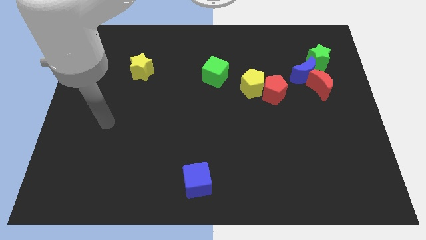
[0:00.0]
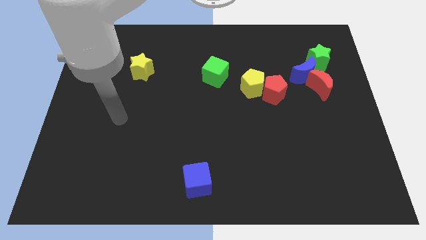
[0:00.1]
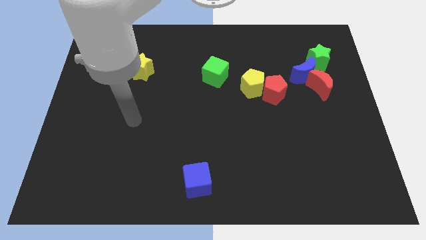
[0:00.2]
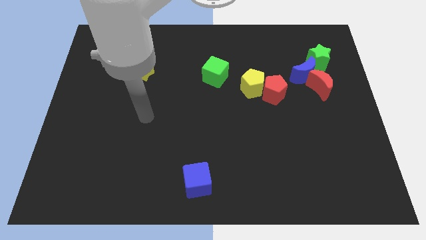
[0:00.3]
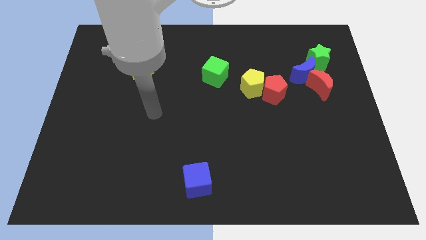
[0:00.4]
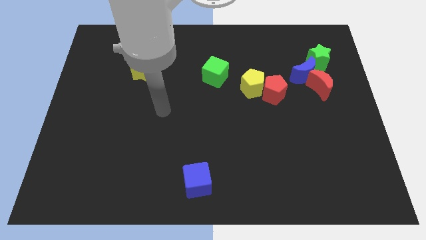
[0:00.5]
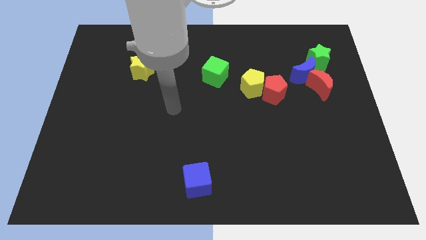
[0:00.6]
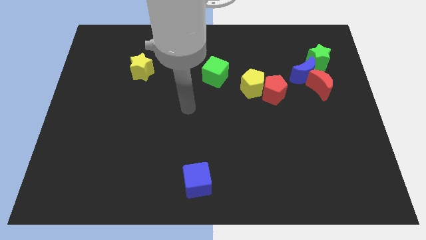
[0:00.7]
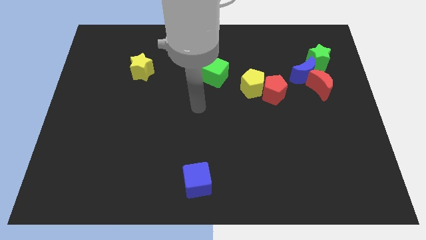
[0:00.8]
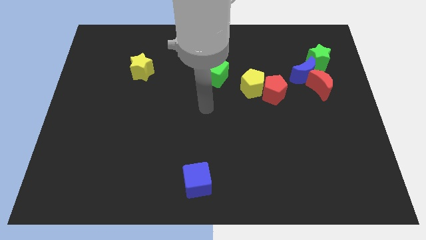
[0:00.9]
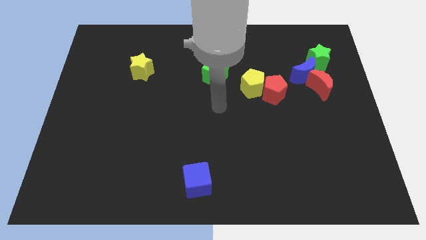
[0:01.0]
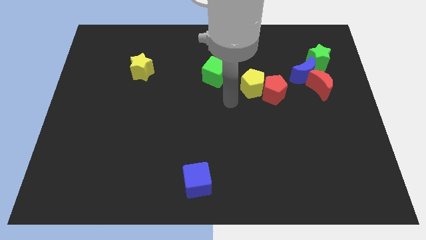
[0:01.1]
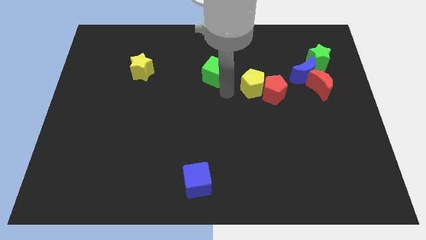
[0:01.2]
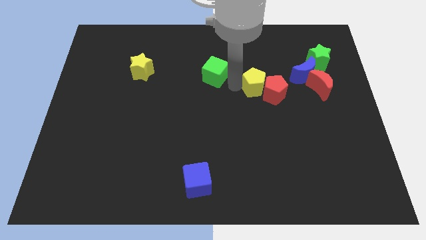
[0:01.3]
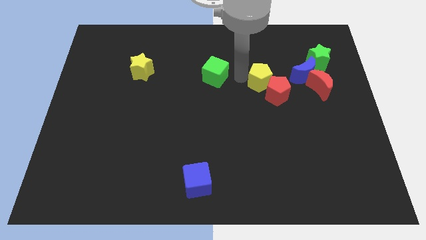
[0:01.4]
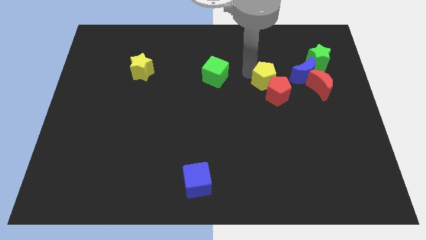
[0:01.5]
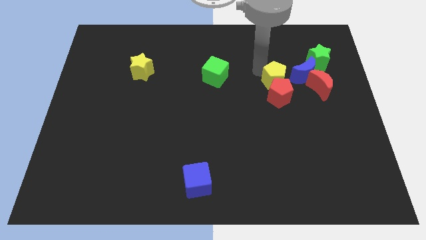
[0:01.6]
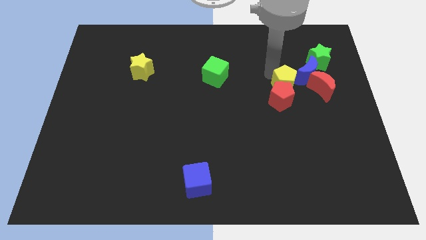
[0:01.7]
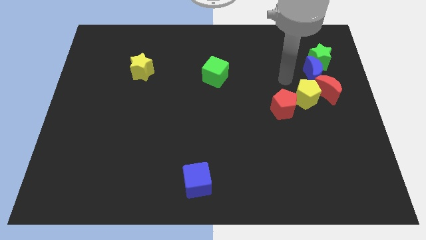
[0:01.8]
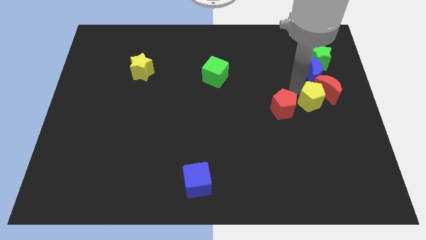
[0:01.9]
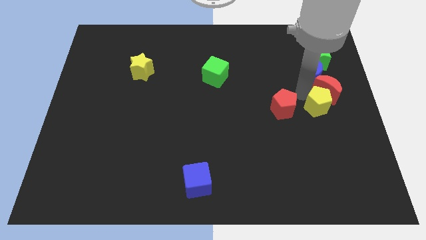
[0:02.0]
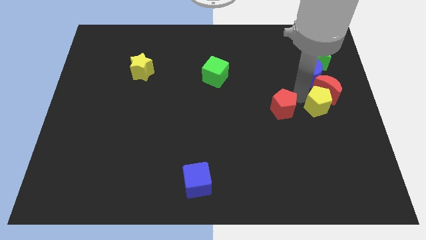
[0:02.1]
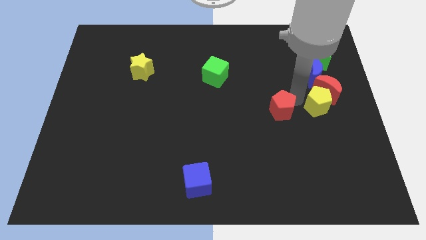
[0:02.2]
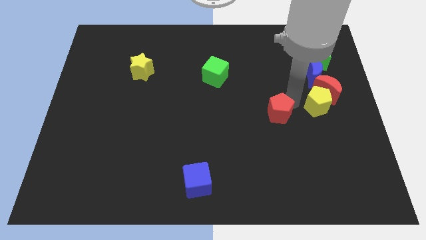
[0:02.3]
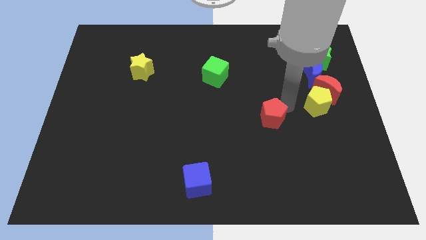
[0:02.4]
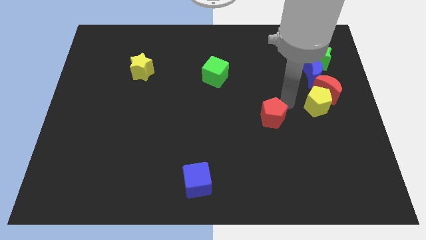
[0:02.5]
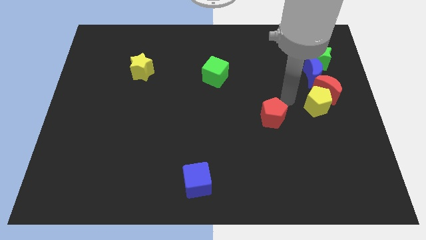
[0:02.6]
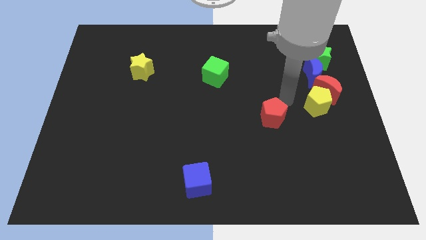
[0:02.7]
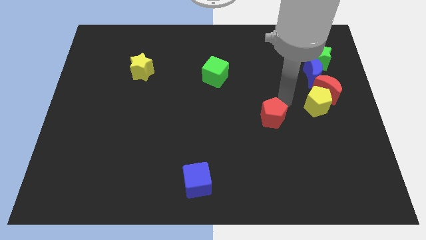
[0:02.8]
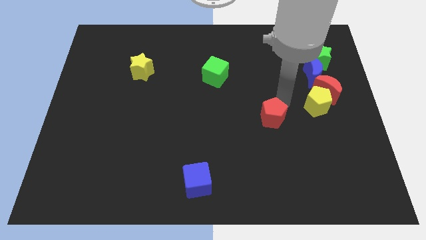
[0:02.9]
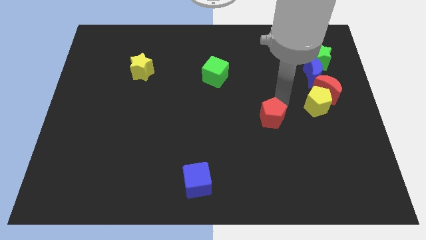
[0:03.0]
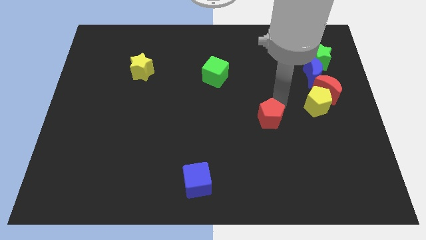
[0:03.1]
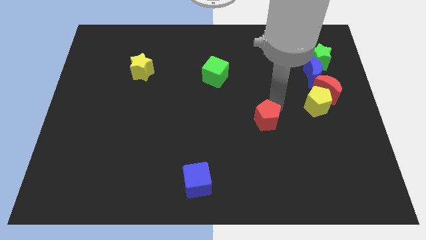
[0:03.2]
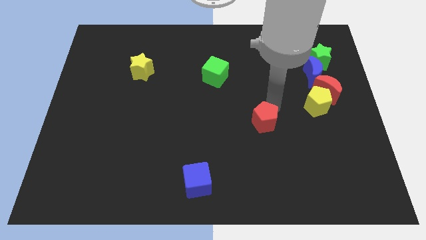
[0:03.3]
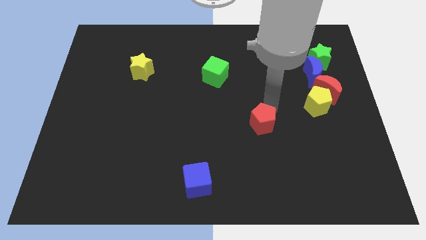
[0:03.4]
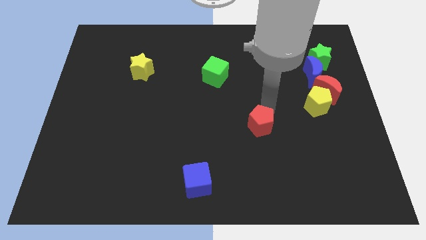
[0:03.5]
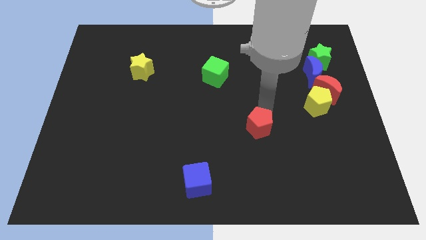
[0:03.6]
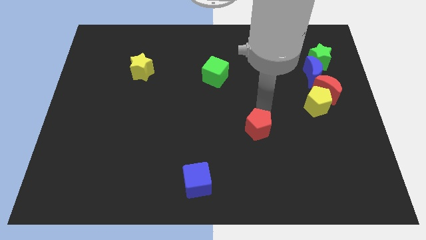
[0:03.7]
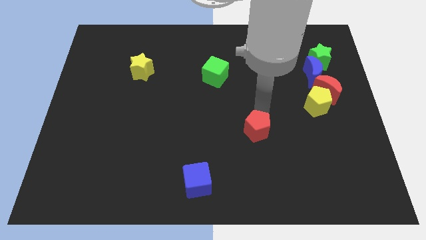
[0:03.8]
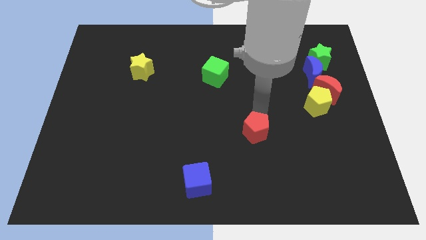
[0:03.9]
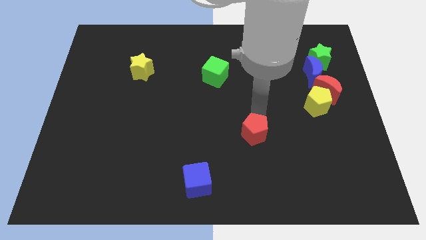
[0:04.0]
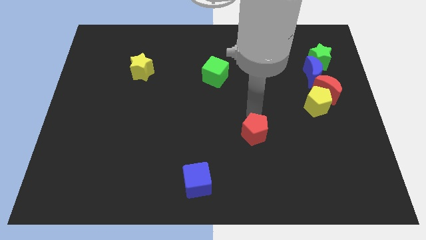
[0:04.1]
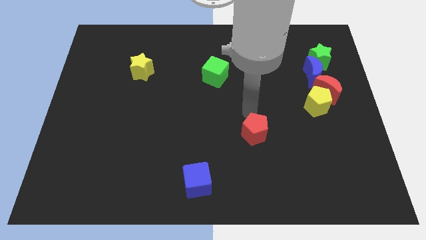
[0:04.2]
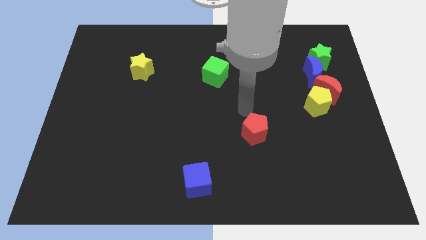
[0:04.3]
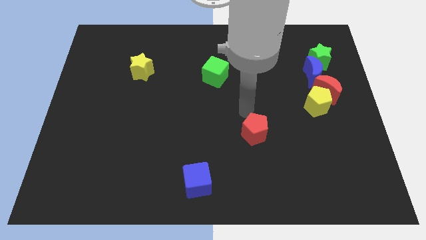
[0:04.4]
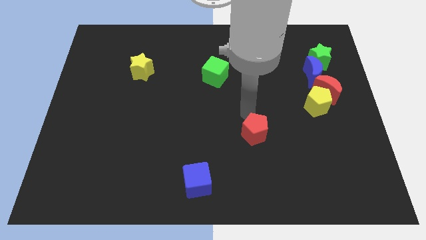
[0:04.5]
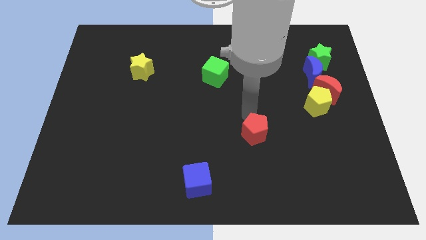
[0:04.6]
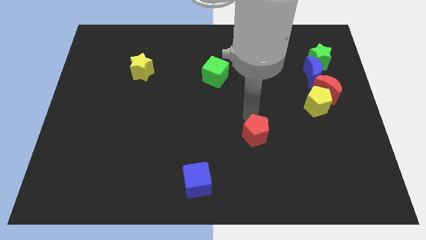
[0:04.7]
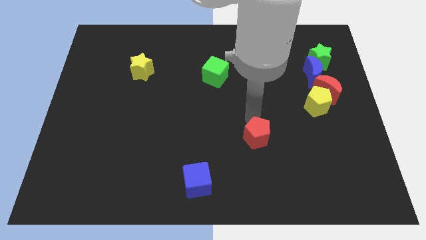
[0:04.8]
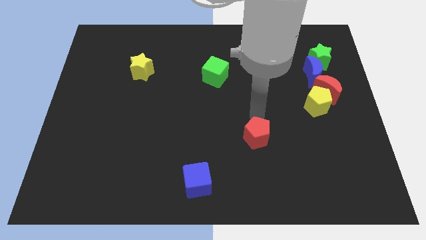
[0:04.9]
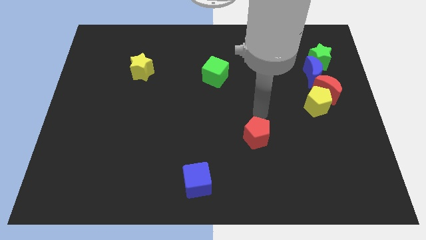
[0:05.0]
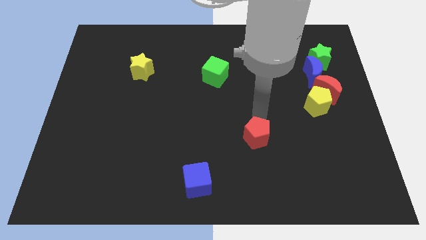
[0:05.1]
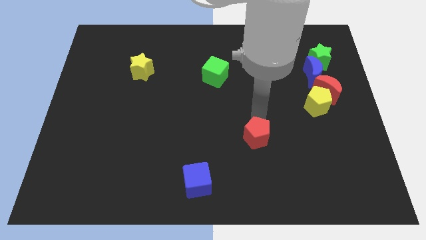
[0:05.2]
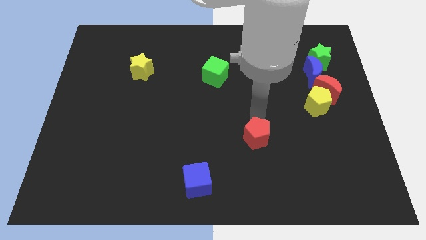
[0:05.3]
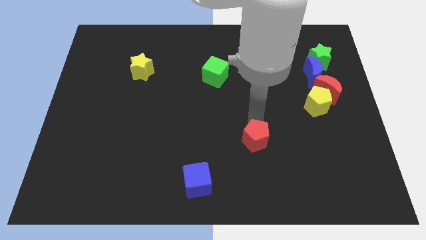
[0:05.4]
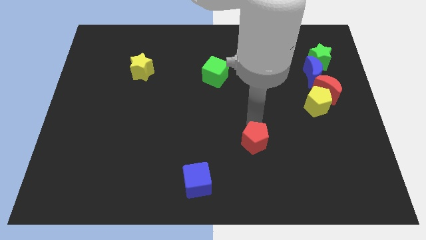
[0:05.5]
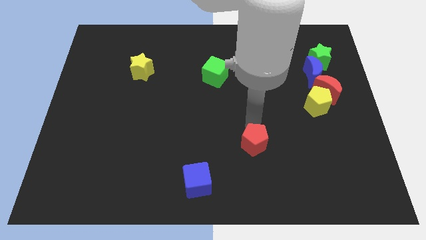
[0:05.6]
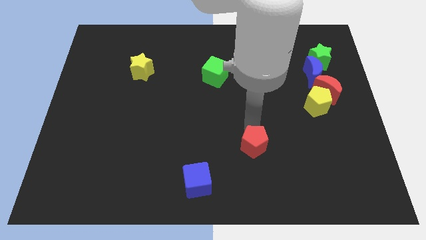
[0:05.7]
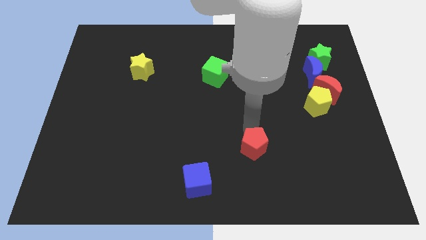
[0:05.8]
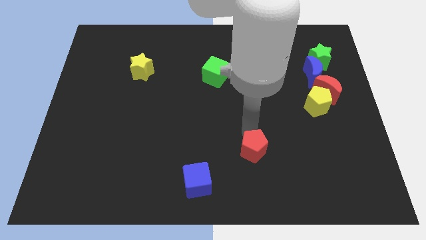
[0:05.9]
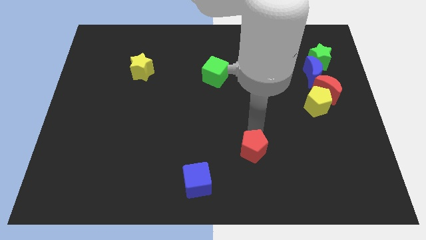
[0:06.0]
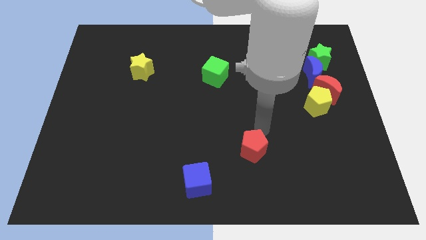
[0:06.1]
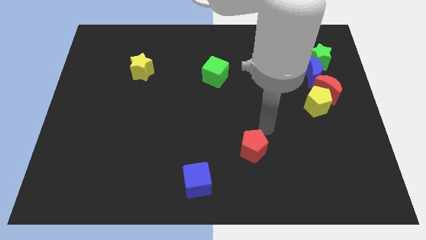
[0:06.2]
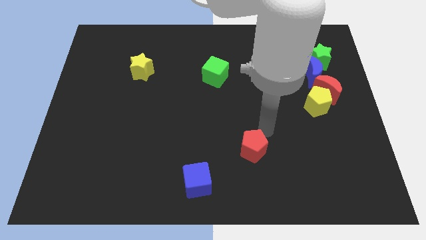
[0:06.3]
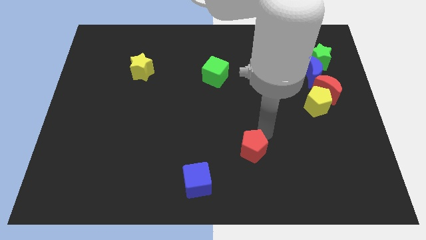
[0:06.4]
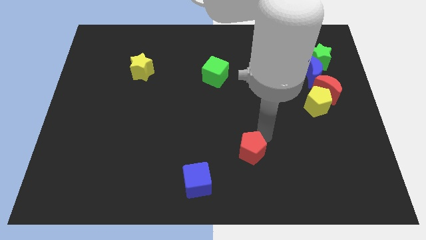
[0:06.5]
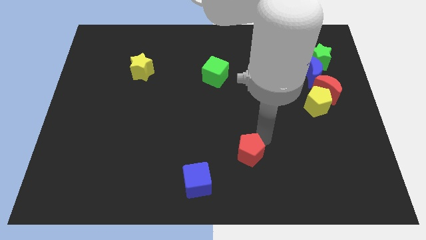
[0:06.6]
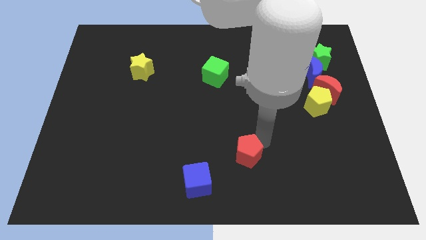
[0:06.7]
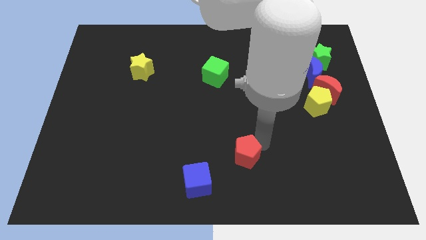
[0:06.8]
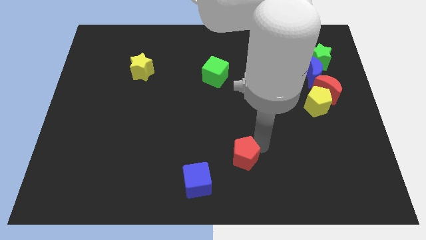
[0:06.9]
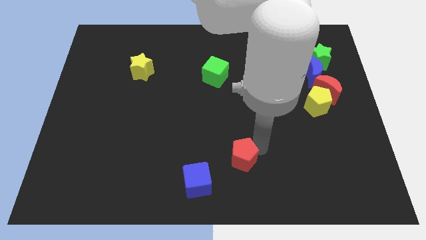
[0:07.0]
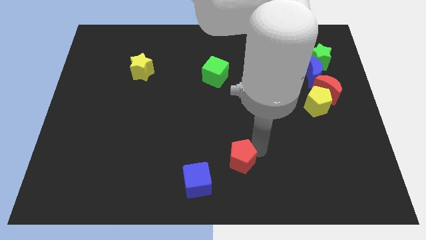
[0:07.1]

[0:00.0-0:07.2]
put the red pentagon to the bottom side
